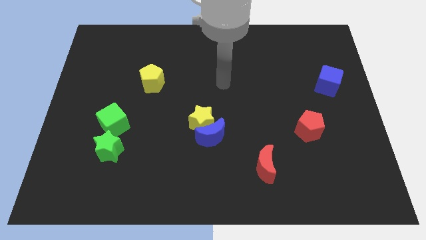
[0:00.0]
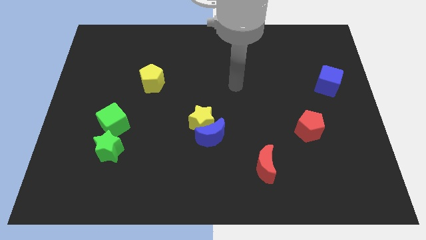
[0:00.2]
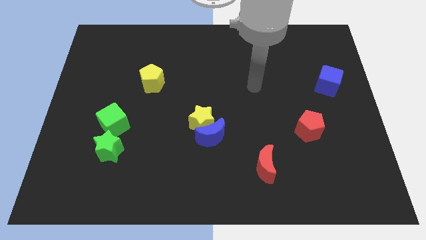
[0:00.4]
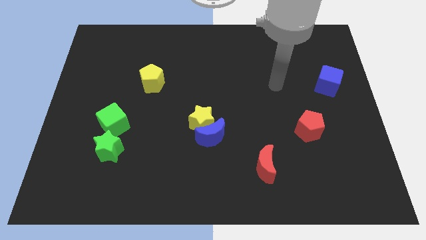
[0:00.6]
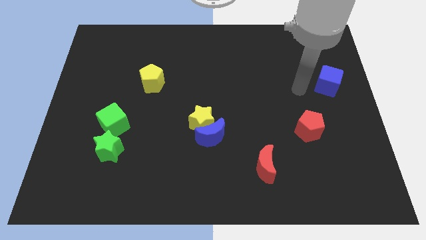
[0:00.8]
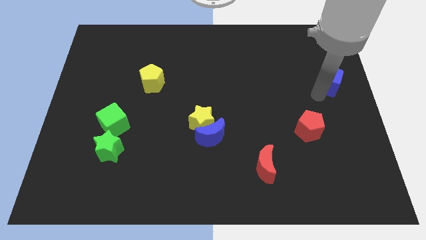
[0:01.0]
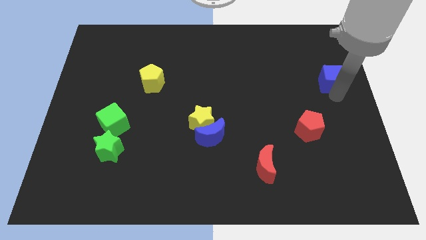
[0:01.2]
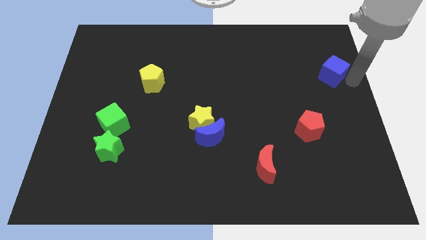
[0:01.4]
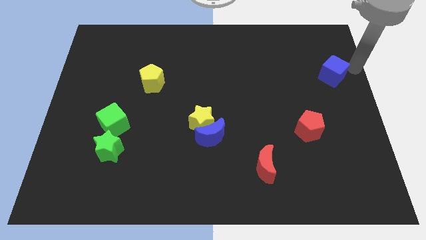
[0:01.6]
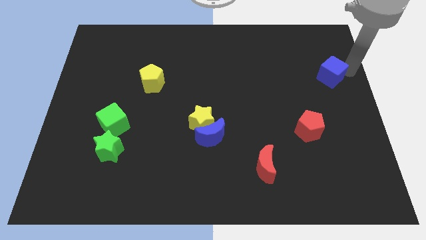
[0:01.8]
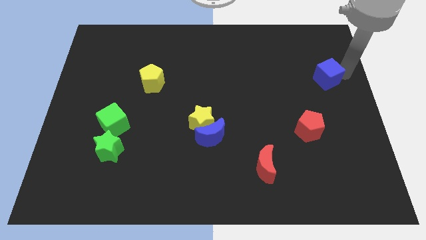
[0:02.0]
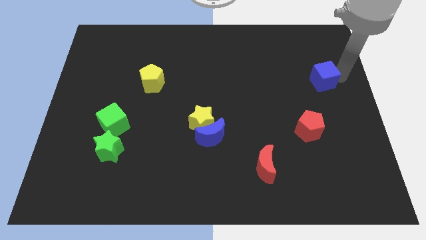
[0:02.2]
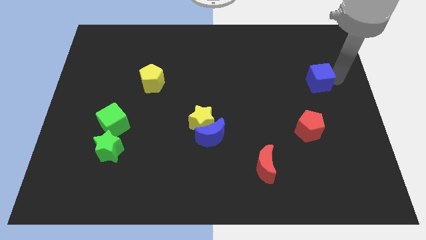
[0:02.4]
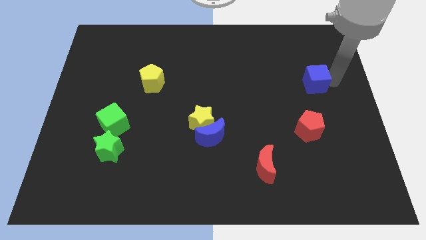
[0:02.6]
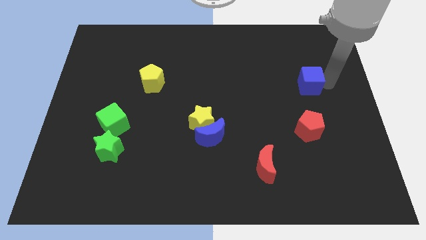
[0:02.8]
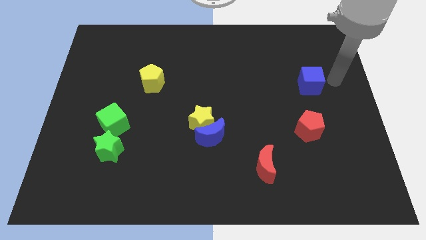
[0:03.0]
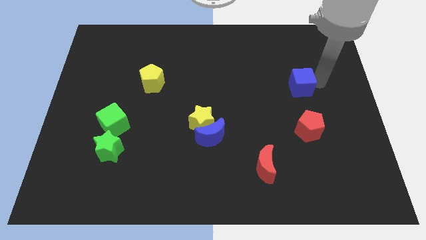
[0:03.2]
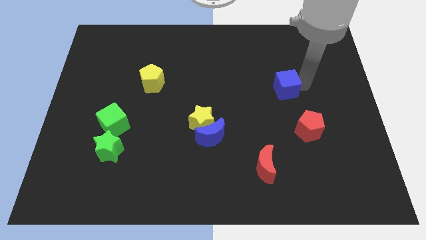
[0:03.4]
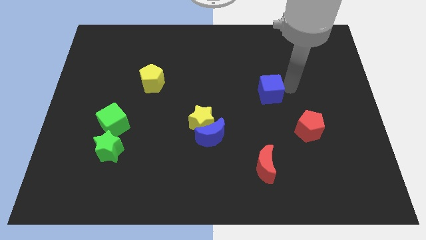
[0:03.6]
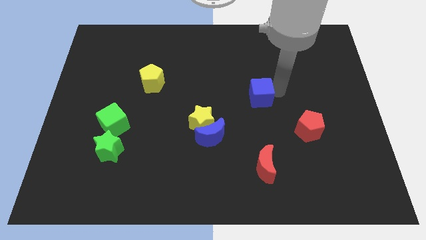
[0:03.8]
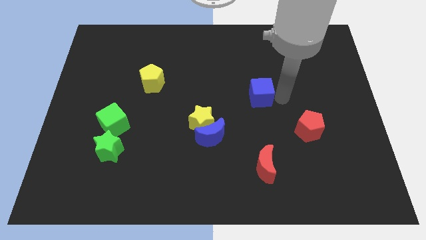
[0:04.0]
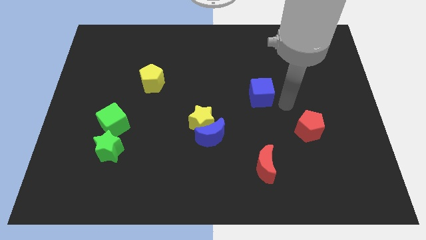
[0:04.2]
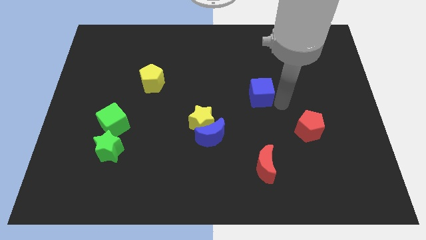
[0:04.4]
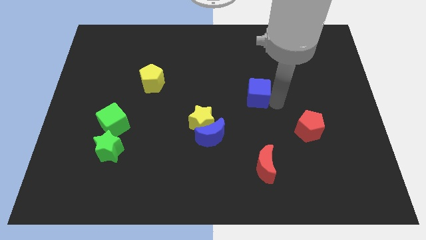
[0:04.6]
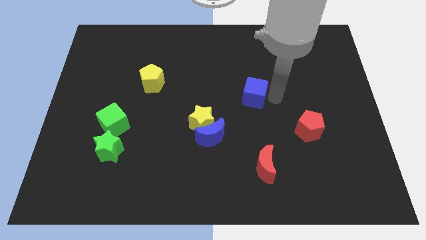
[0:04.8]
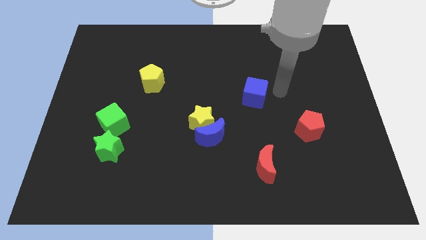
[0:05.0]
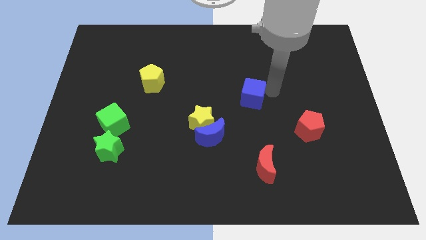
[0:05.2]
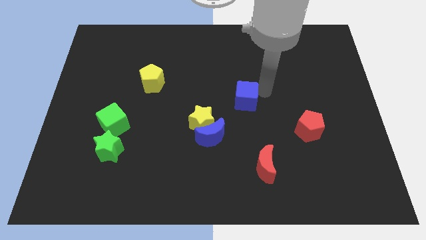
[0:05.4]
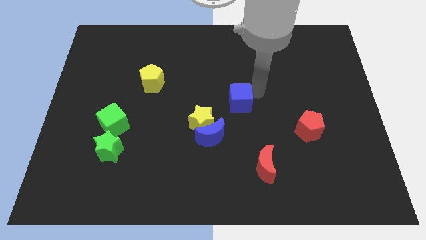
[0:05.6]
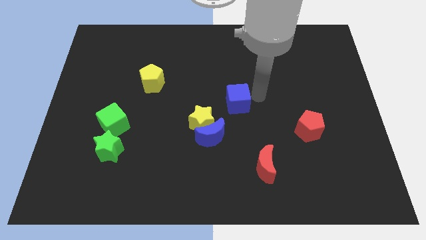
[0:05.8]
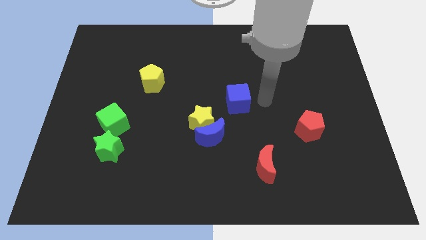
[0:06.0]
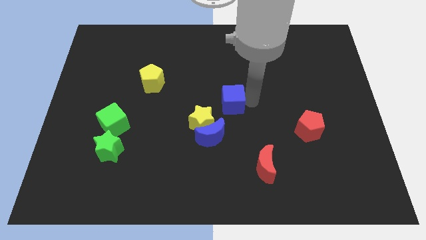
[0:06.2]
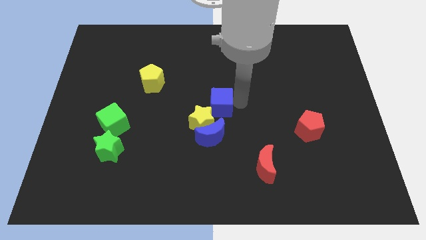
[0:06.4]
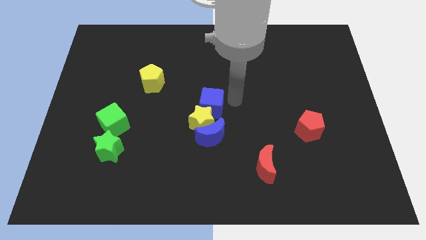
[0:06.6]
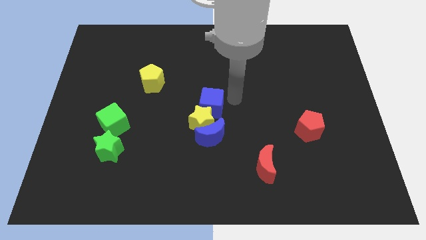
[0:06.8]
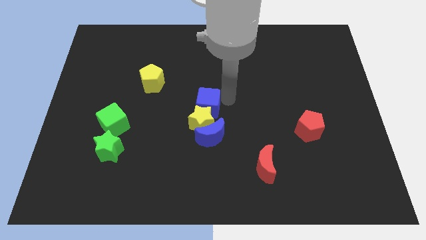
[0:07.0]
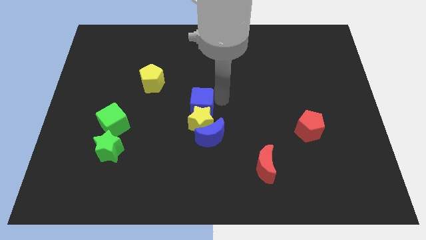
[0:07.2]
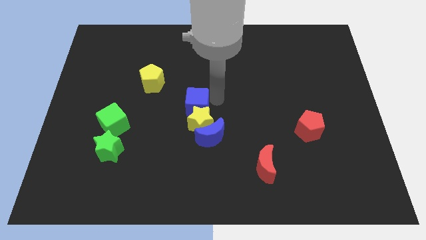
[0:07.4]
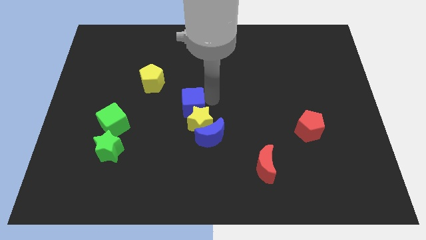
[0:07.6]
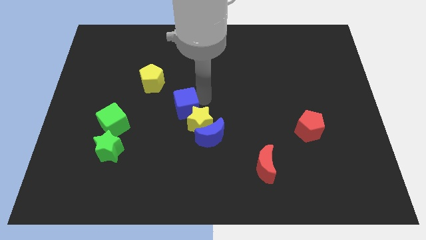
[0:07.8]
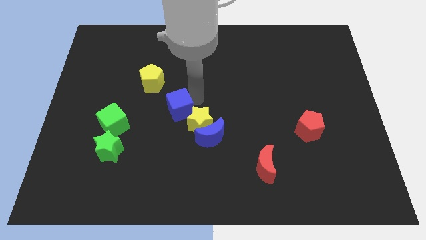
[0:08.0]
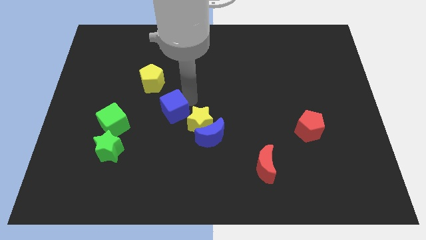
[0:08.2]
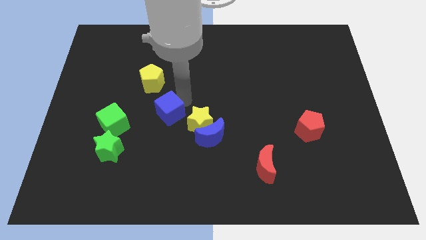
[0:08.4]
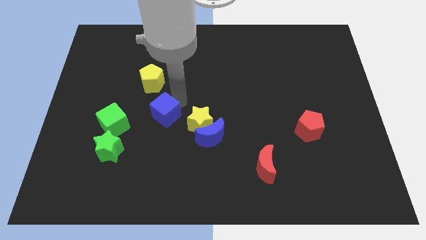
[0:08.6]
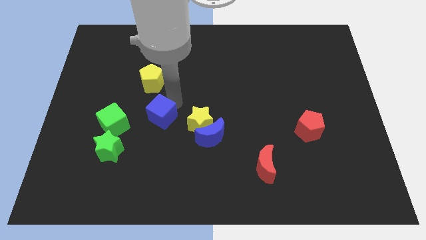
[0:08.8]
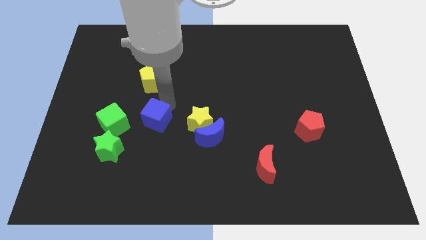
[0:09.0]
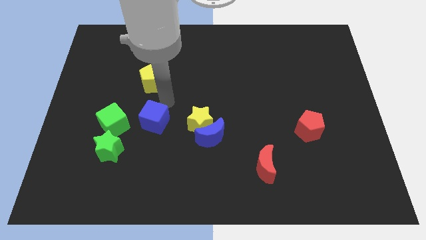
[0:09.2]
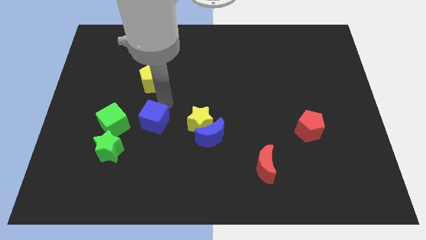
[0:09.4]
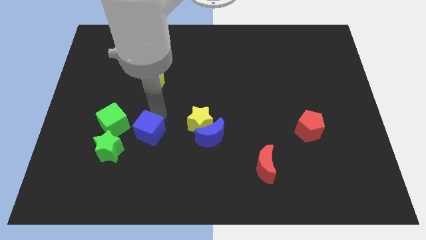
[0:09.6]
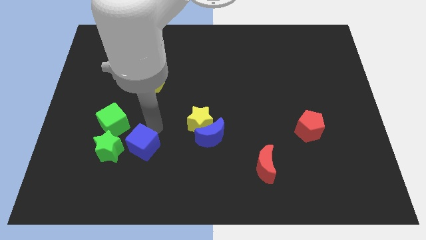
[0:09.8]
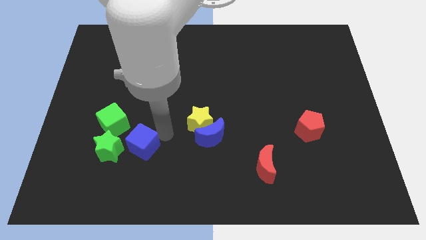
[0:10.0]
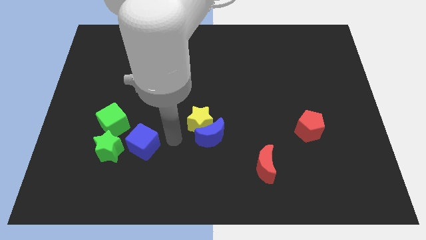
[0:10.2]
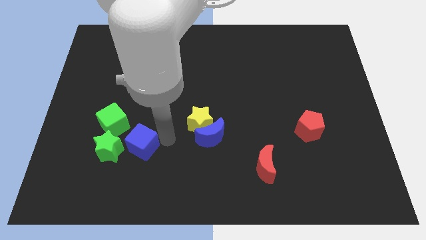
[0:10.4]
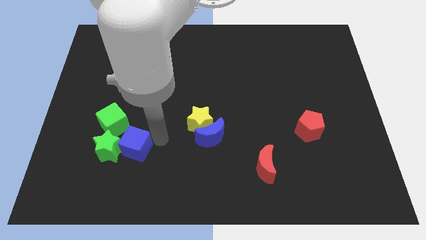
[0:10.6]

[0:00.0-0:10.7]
move the blue cube to the green star

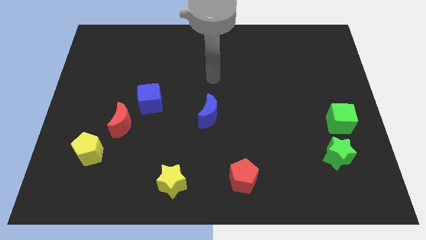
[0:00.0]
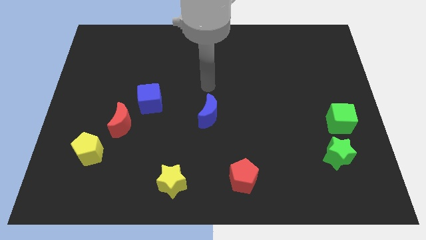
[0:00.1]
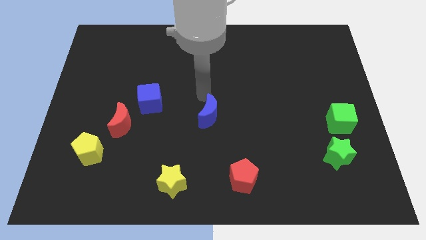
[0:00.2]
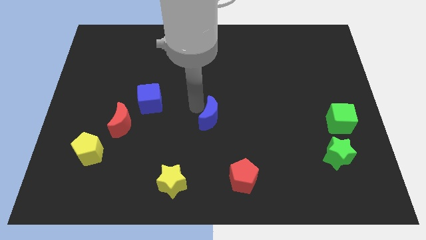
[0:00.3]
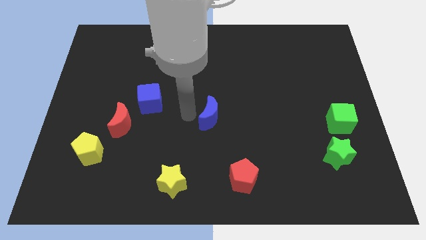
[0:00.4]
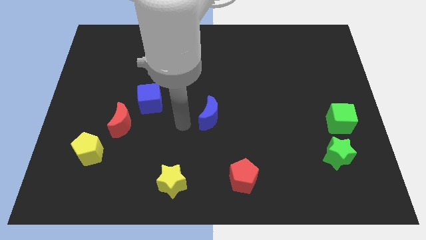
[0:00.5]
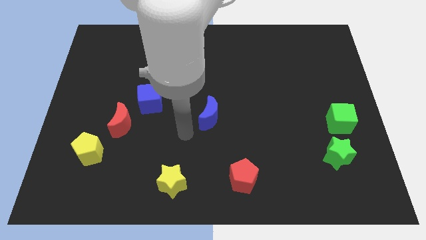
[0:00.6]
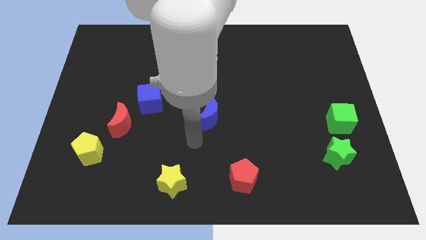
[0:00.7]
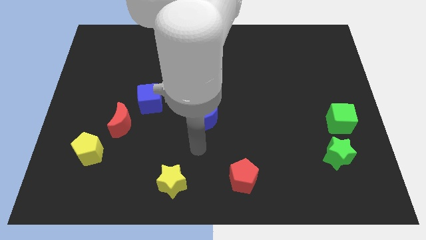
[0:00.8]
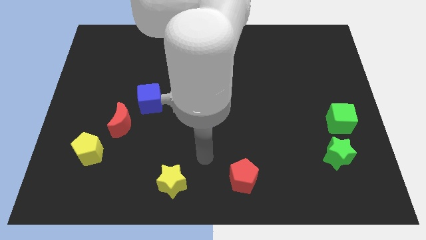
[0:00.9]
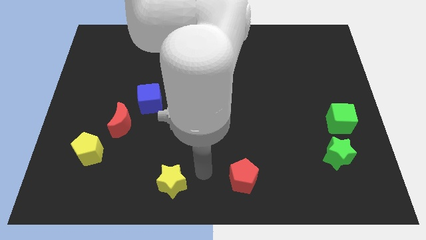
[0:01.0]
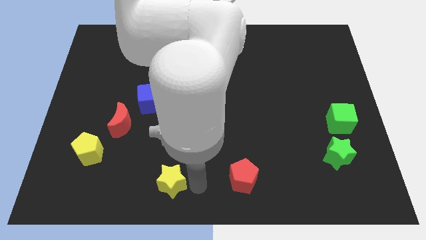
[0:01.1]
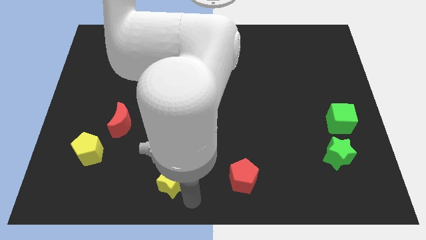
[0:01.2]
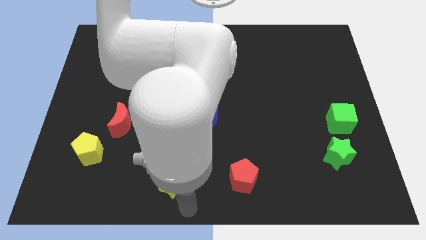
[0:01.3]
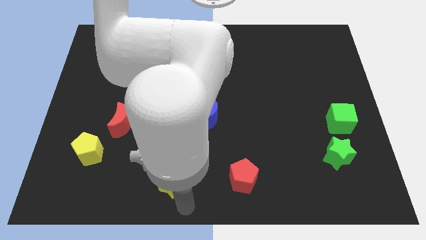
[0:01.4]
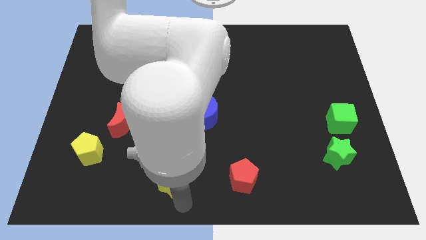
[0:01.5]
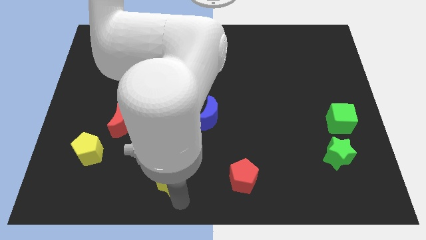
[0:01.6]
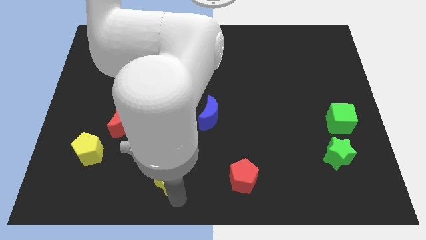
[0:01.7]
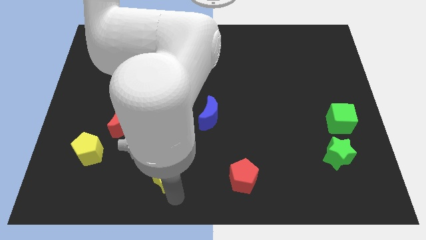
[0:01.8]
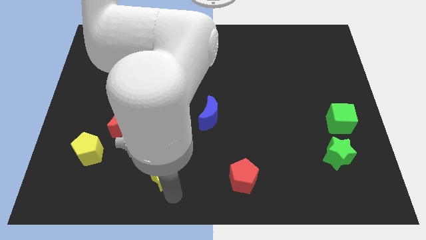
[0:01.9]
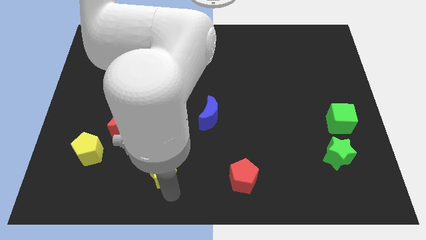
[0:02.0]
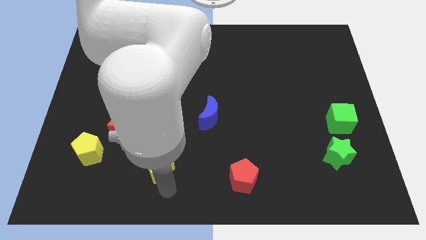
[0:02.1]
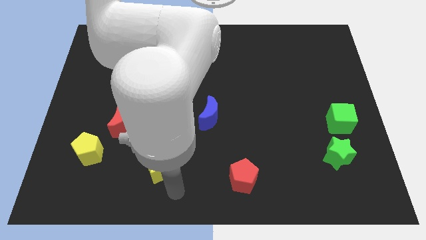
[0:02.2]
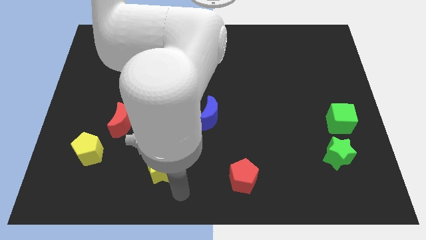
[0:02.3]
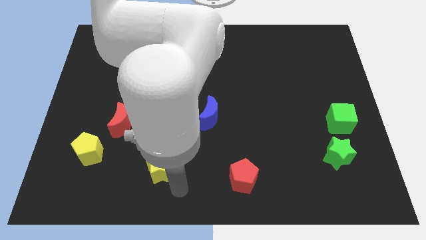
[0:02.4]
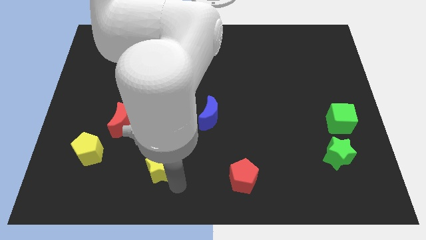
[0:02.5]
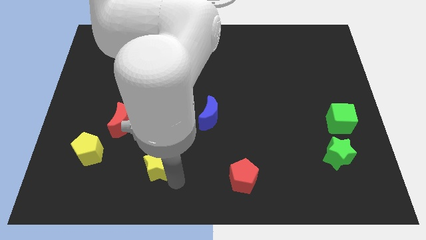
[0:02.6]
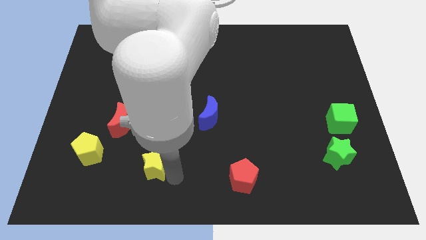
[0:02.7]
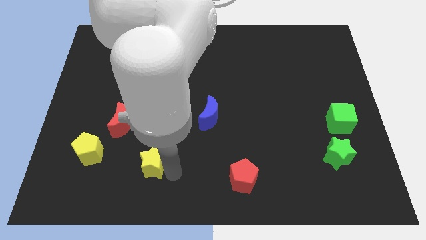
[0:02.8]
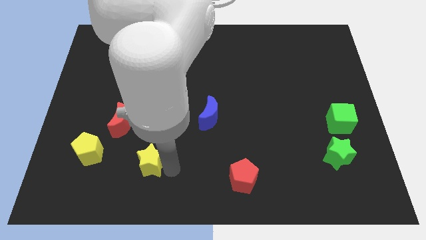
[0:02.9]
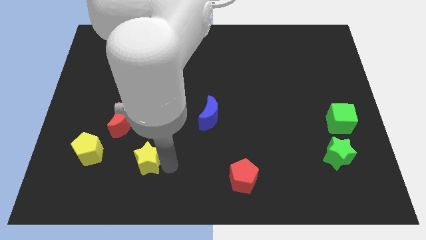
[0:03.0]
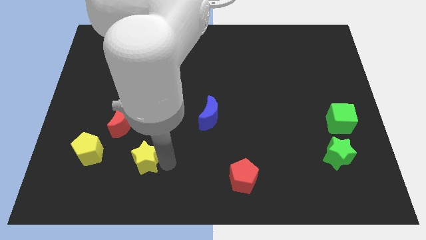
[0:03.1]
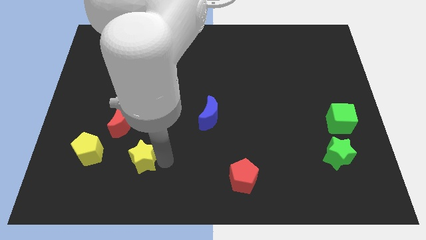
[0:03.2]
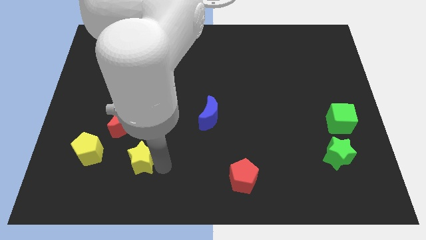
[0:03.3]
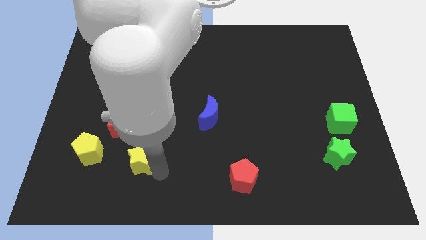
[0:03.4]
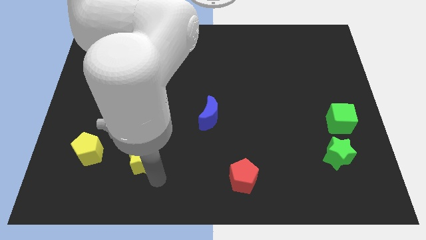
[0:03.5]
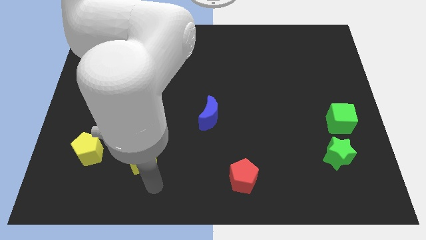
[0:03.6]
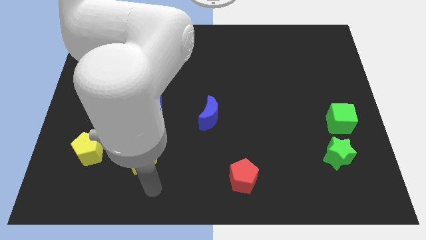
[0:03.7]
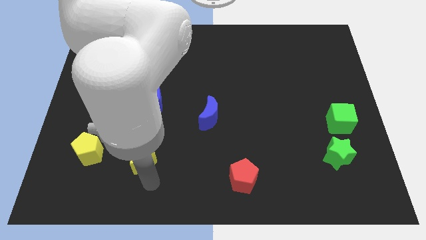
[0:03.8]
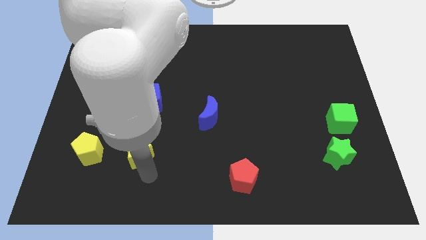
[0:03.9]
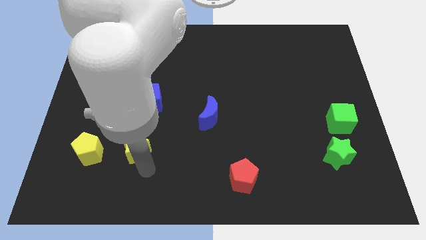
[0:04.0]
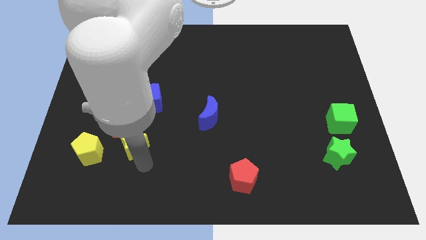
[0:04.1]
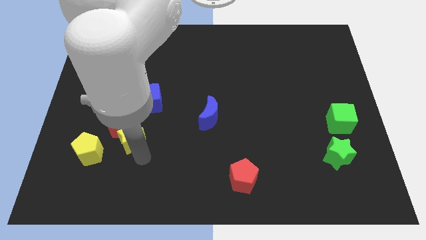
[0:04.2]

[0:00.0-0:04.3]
put the yellow star close to the red moon
